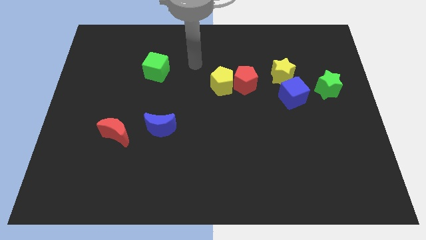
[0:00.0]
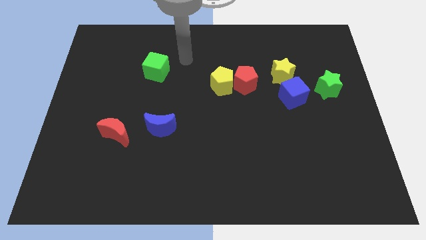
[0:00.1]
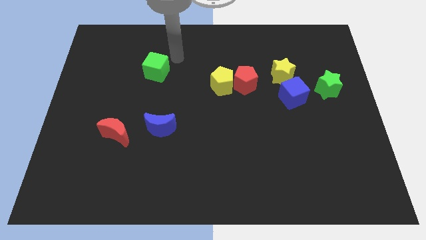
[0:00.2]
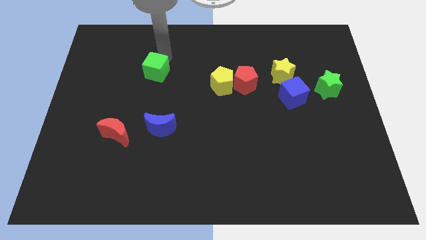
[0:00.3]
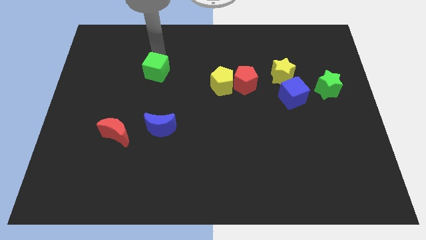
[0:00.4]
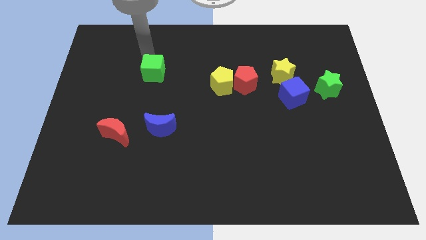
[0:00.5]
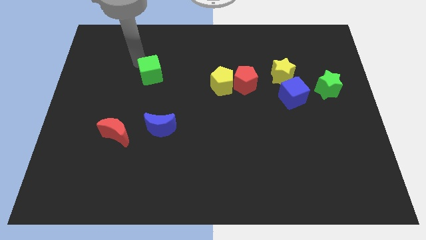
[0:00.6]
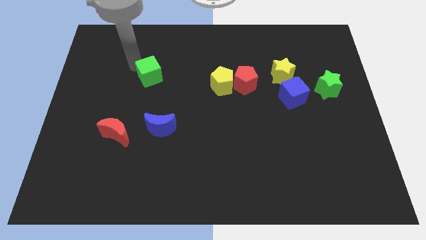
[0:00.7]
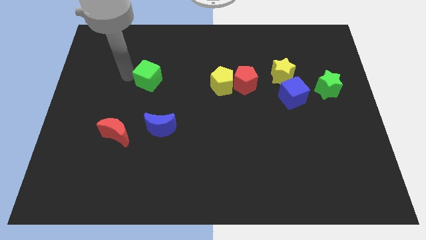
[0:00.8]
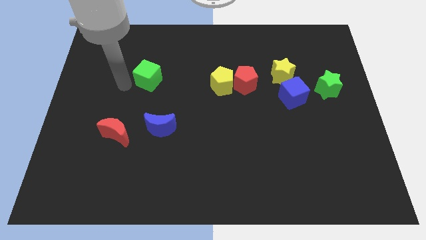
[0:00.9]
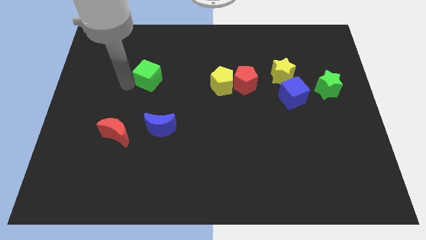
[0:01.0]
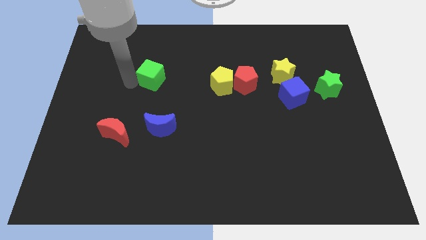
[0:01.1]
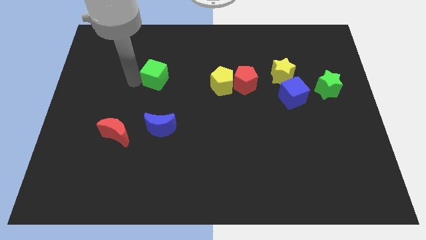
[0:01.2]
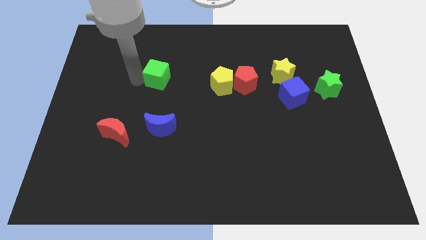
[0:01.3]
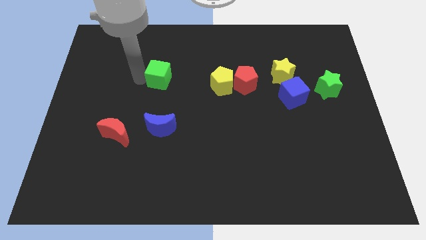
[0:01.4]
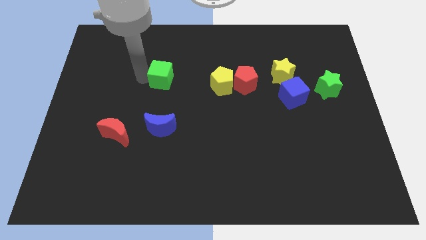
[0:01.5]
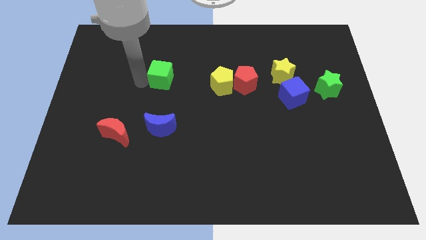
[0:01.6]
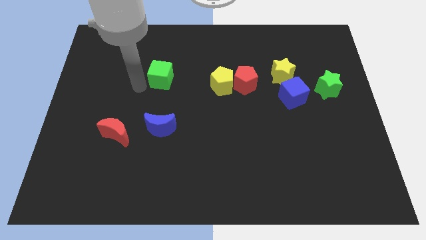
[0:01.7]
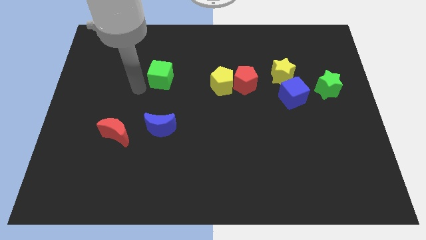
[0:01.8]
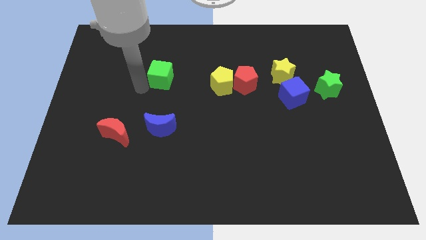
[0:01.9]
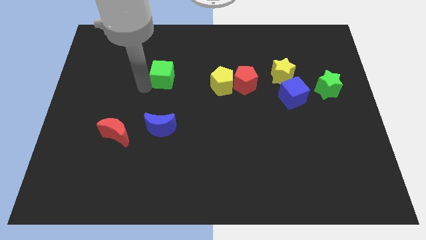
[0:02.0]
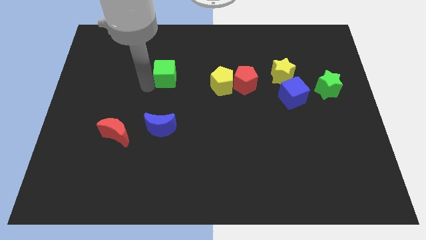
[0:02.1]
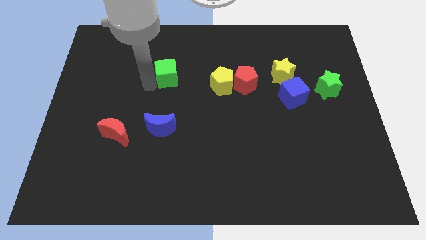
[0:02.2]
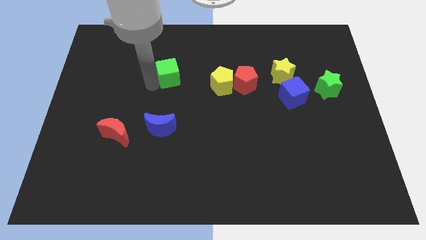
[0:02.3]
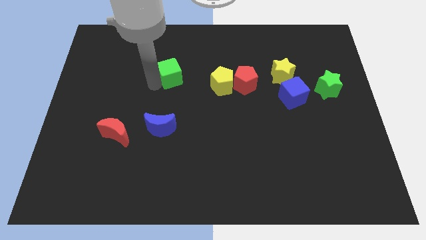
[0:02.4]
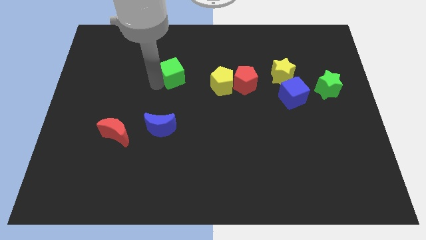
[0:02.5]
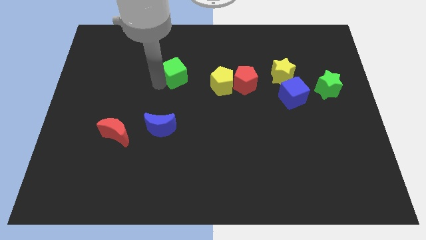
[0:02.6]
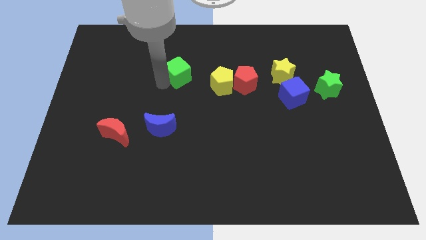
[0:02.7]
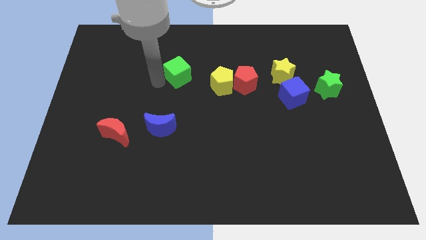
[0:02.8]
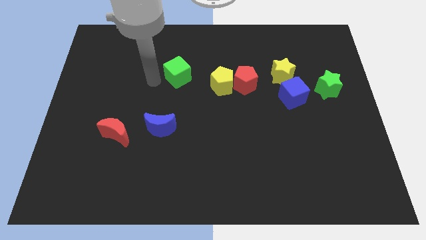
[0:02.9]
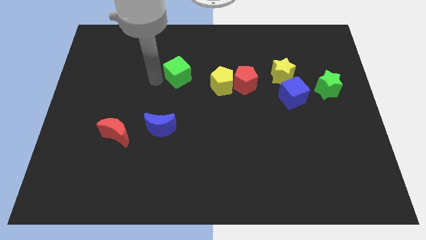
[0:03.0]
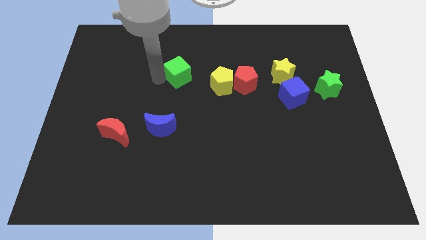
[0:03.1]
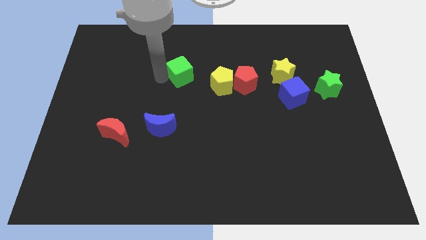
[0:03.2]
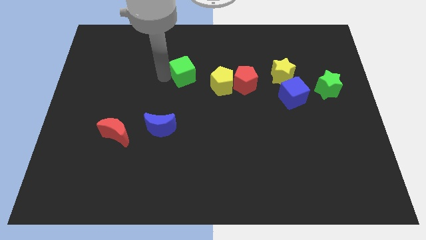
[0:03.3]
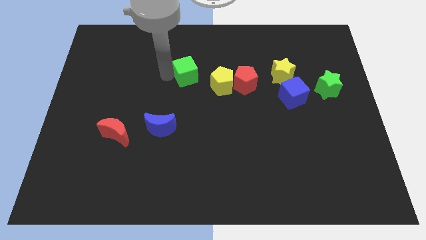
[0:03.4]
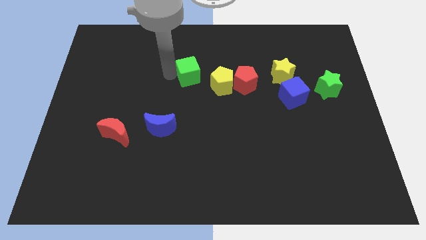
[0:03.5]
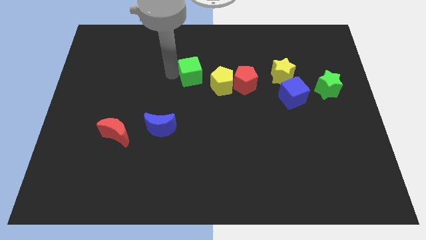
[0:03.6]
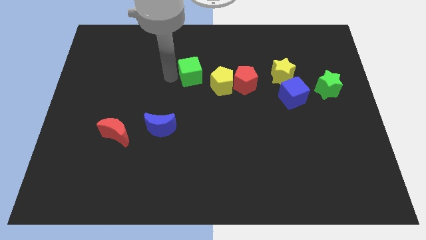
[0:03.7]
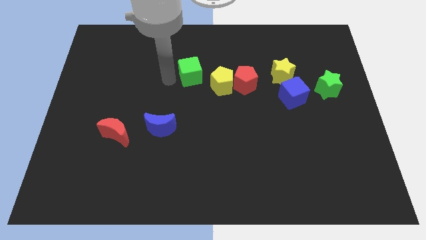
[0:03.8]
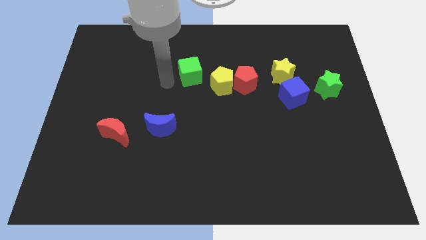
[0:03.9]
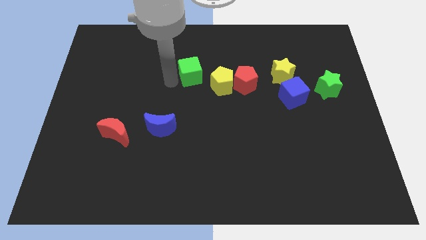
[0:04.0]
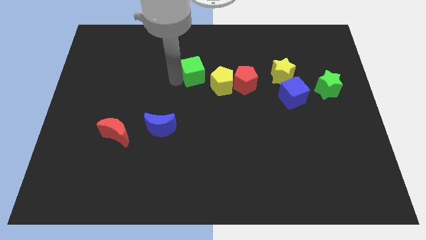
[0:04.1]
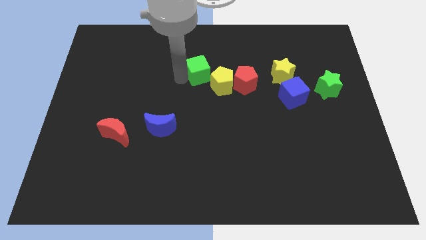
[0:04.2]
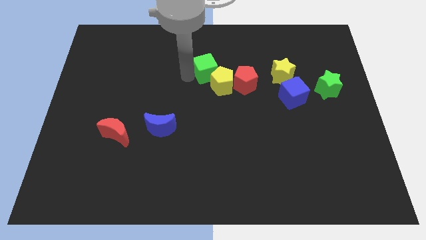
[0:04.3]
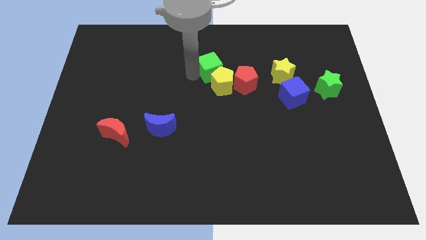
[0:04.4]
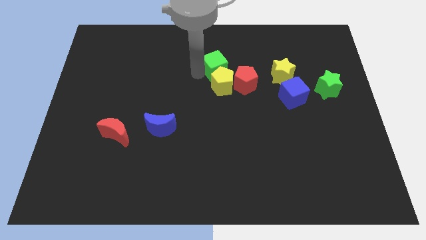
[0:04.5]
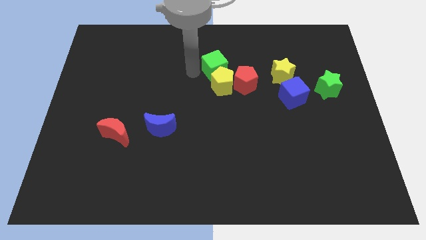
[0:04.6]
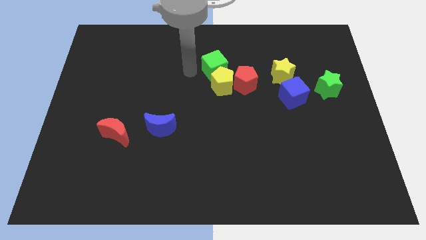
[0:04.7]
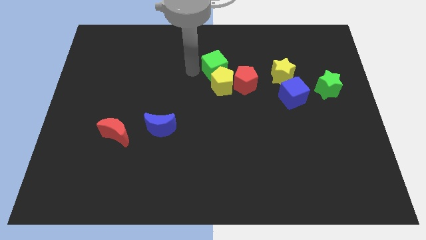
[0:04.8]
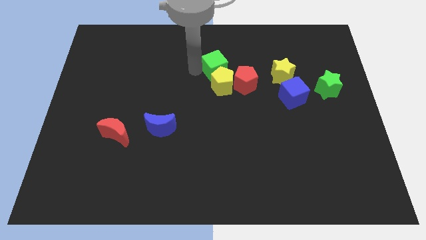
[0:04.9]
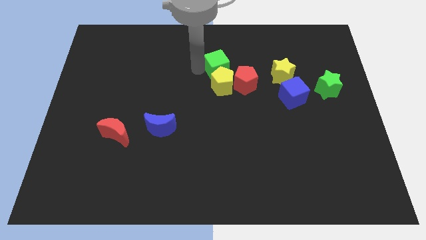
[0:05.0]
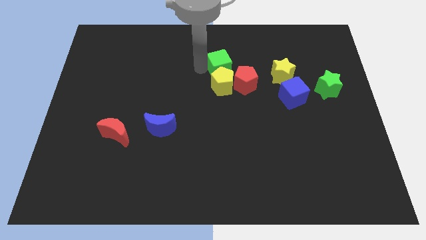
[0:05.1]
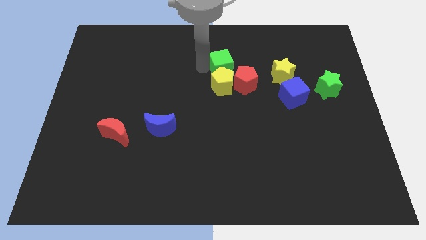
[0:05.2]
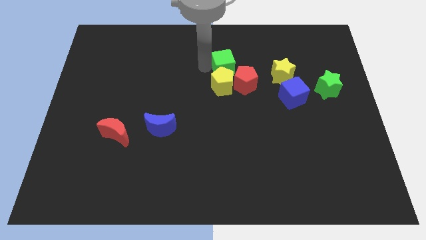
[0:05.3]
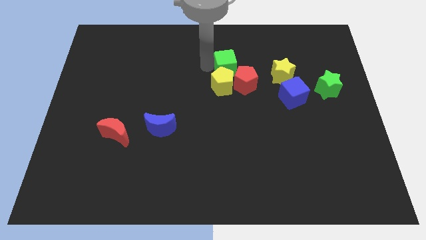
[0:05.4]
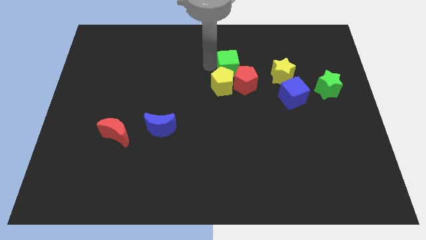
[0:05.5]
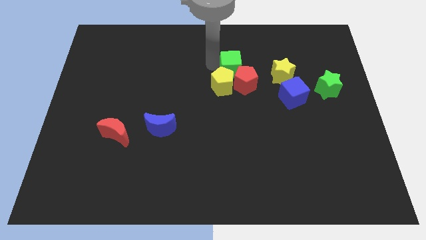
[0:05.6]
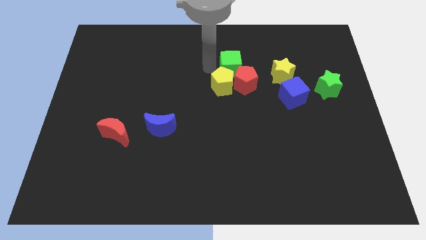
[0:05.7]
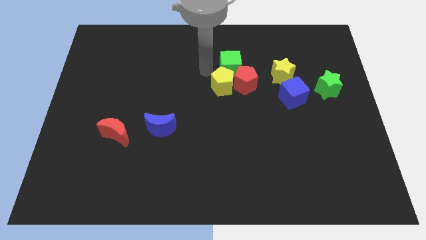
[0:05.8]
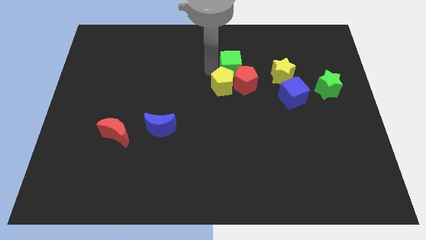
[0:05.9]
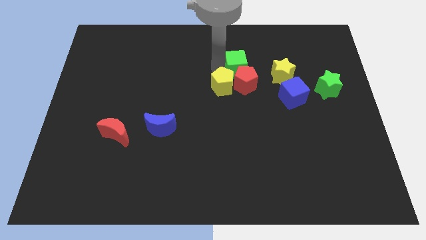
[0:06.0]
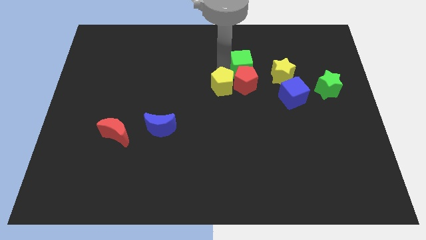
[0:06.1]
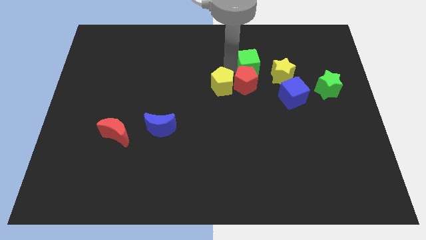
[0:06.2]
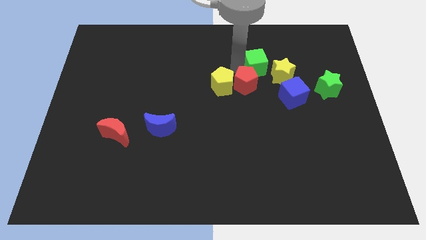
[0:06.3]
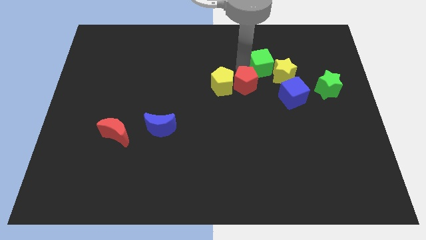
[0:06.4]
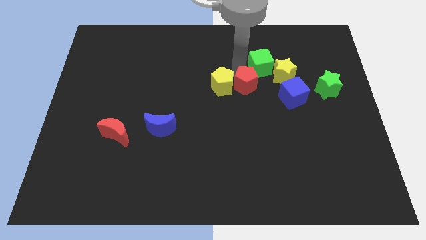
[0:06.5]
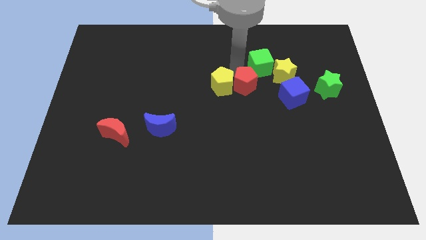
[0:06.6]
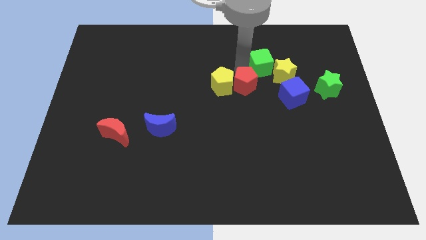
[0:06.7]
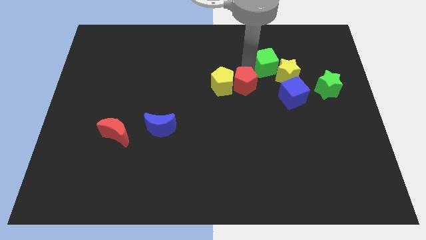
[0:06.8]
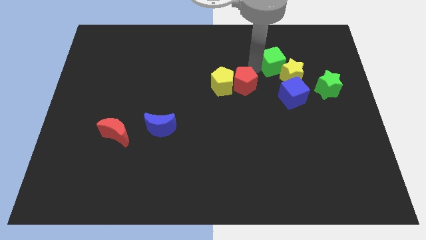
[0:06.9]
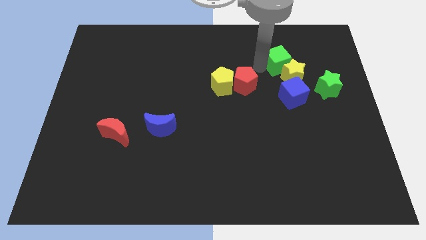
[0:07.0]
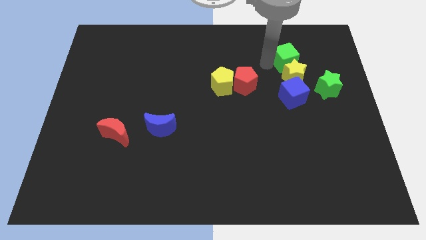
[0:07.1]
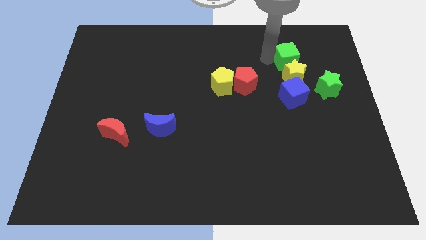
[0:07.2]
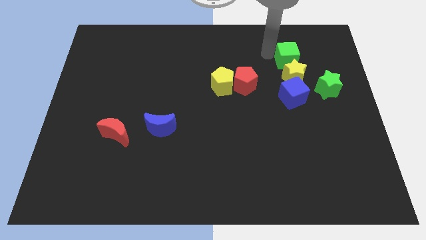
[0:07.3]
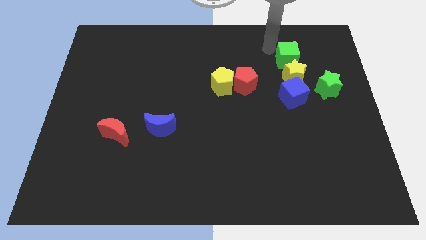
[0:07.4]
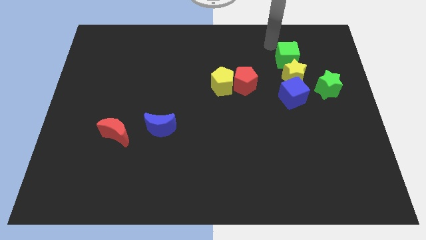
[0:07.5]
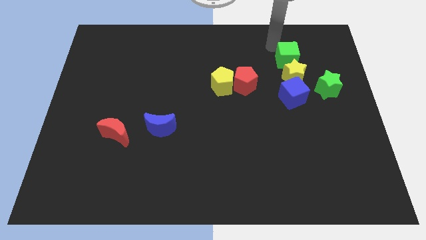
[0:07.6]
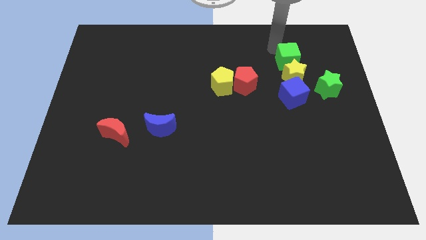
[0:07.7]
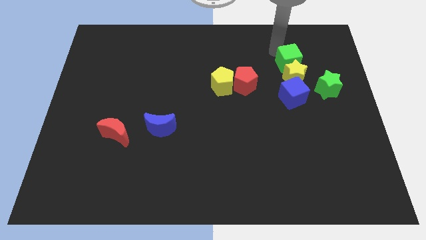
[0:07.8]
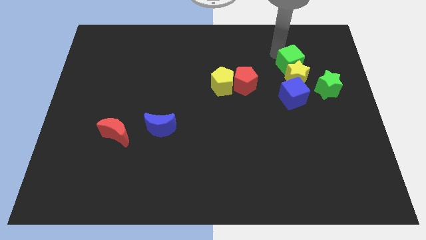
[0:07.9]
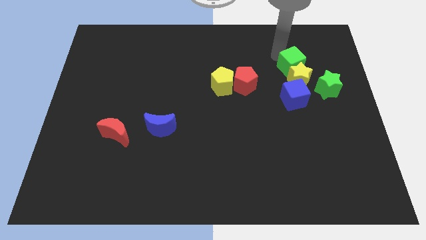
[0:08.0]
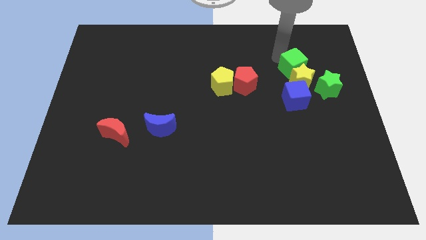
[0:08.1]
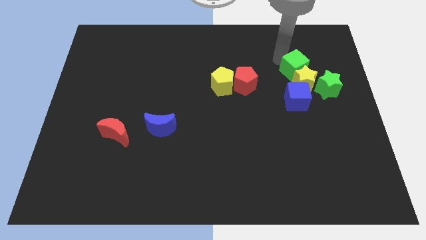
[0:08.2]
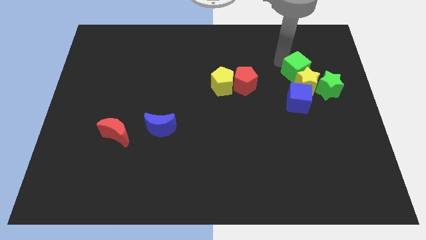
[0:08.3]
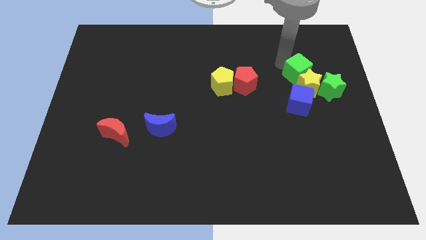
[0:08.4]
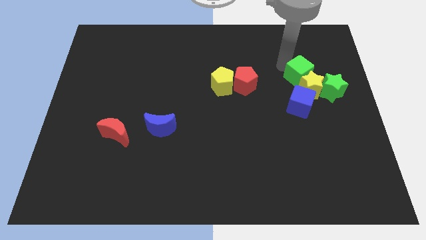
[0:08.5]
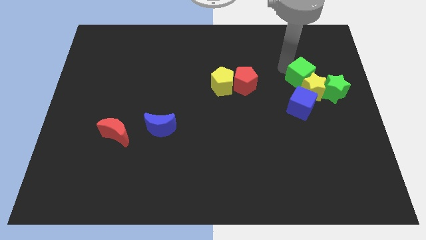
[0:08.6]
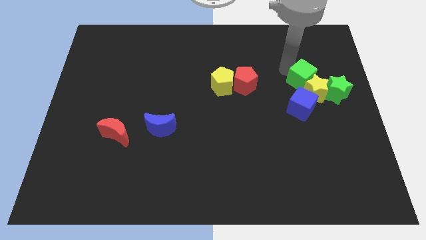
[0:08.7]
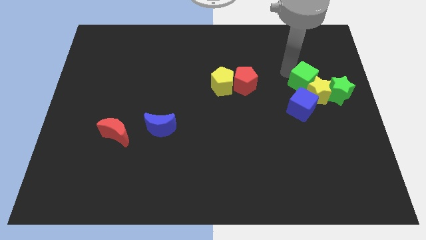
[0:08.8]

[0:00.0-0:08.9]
push the green cube to the top right side of the blue cube
